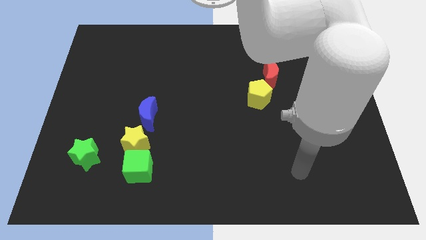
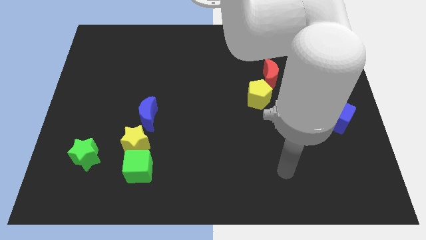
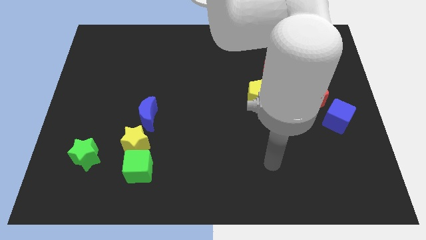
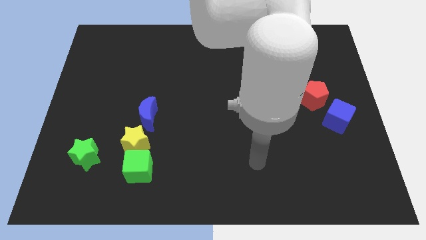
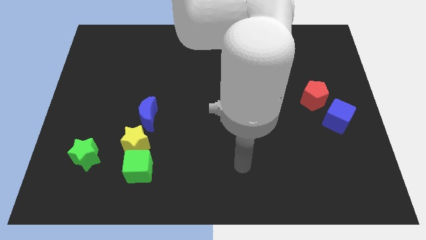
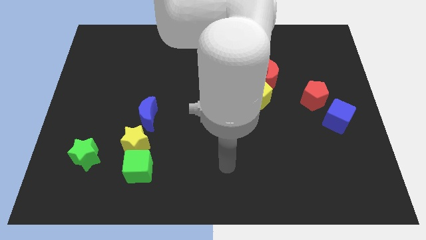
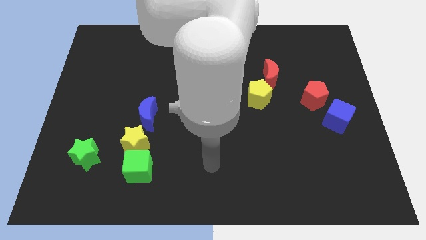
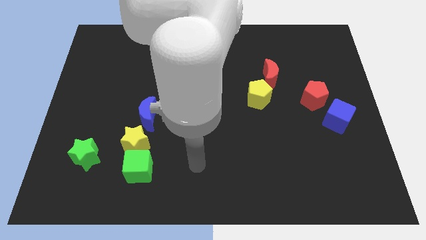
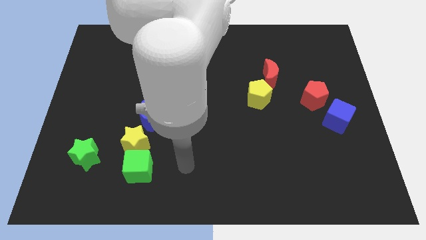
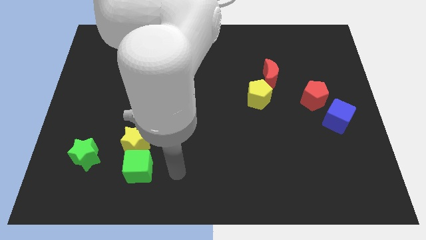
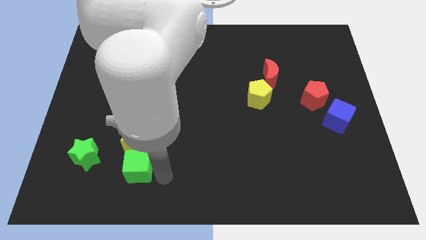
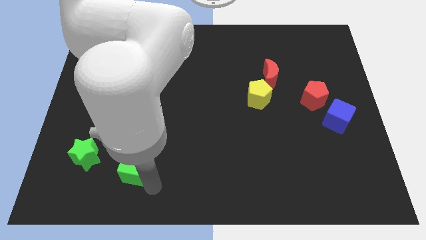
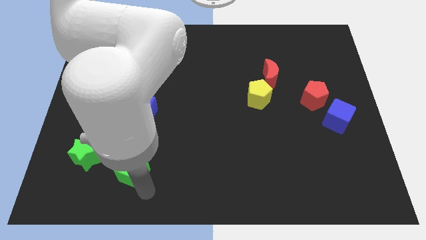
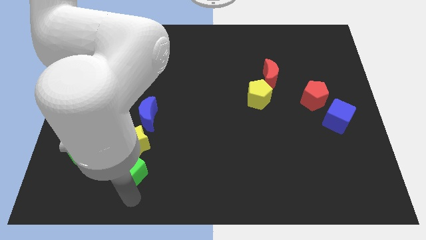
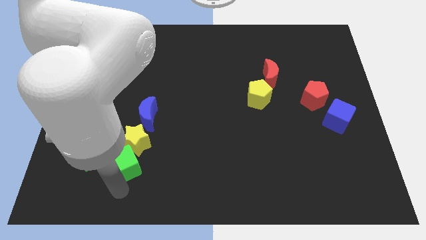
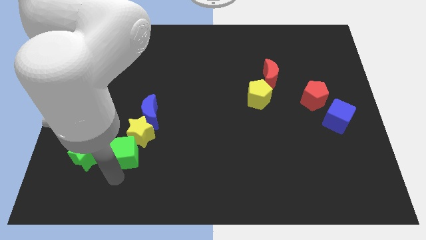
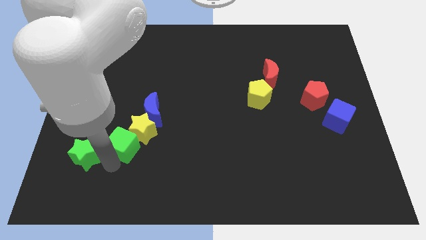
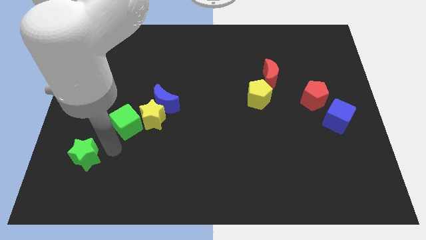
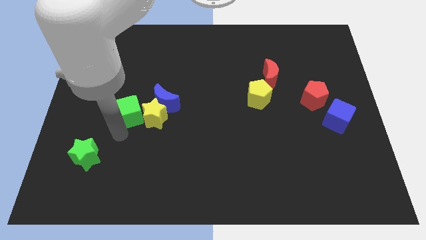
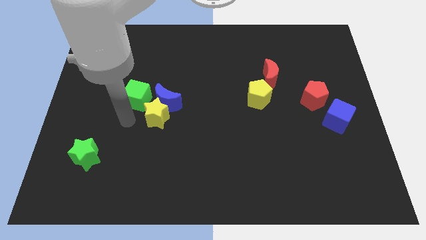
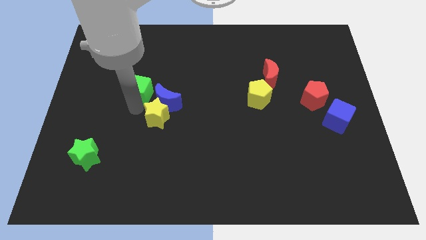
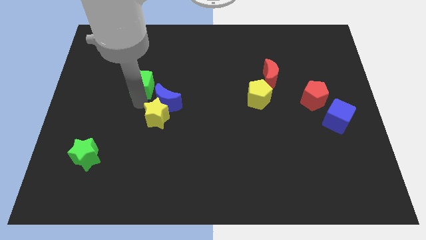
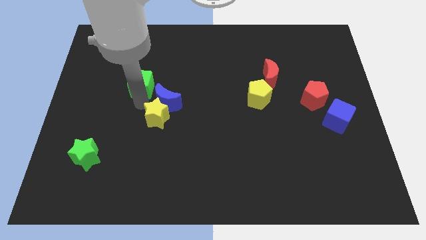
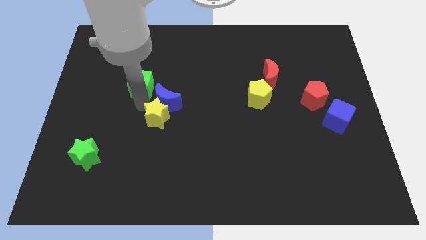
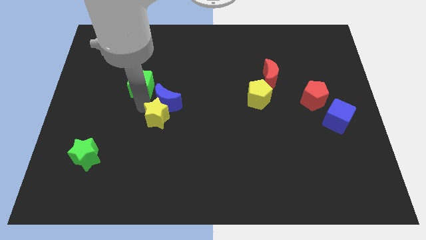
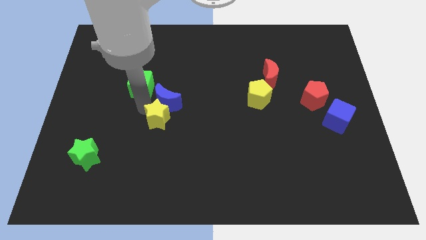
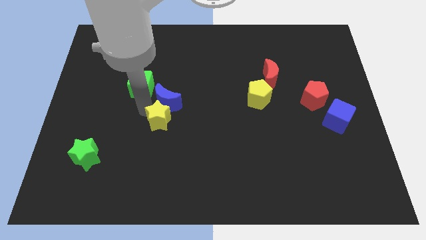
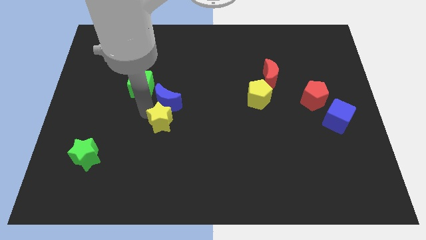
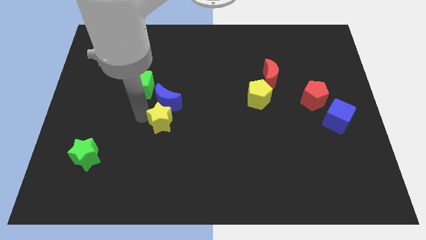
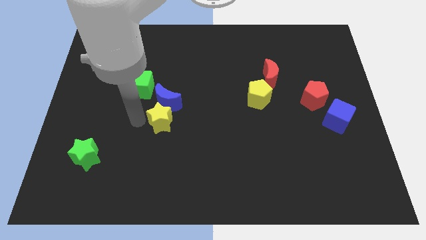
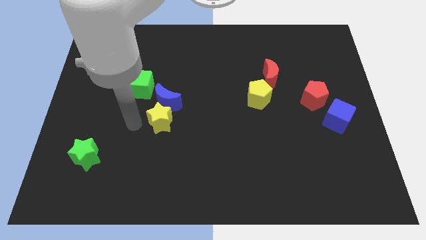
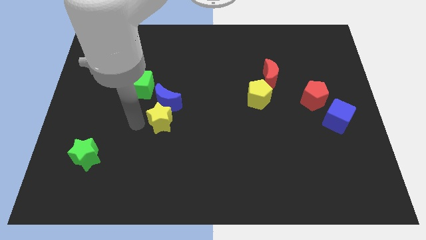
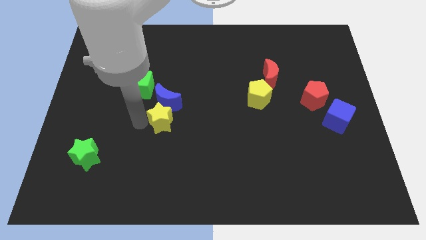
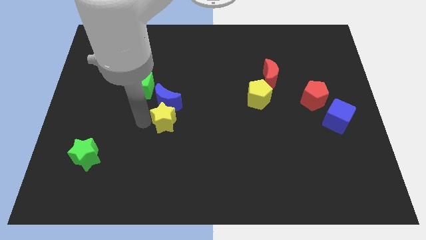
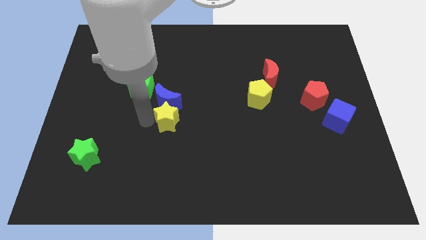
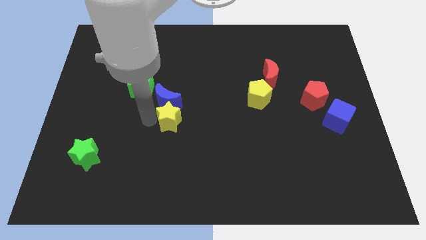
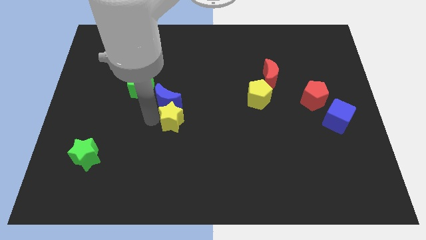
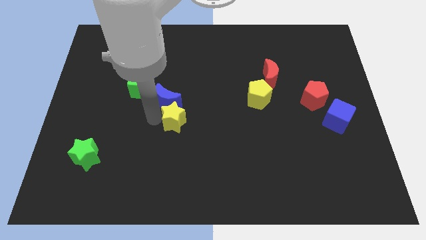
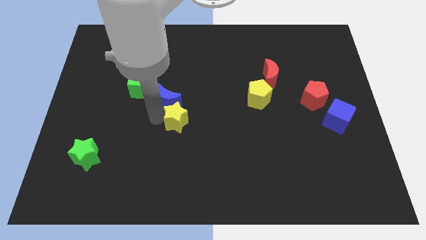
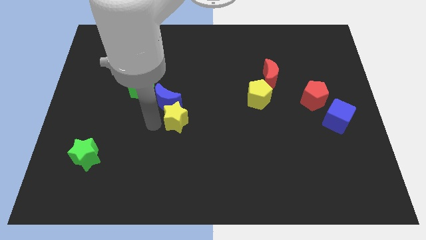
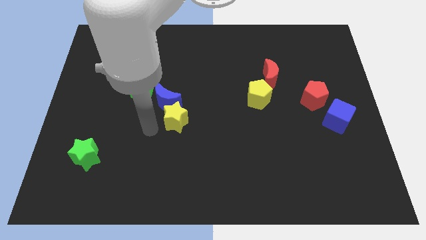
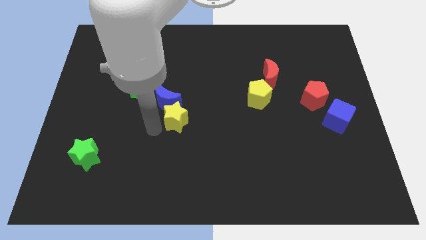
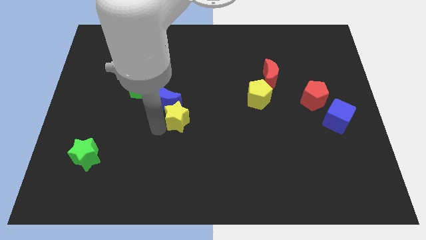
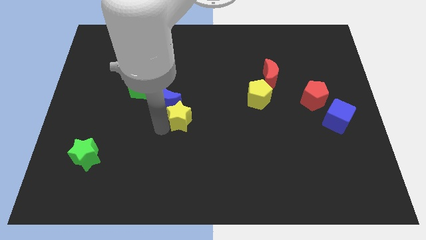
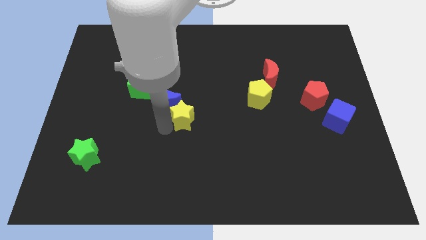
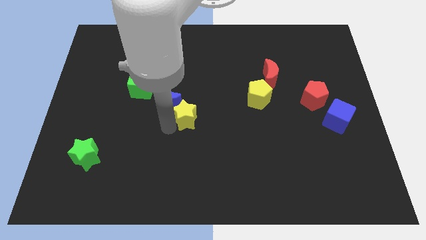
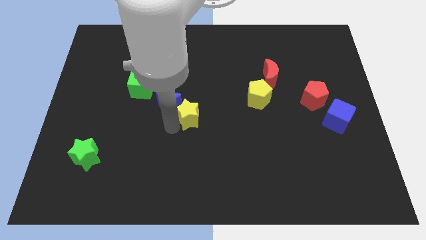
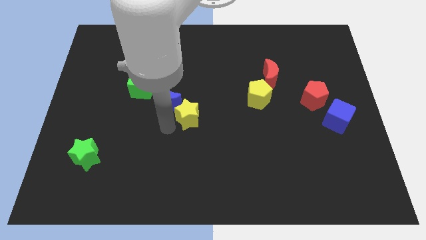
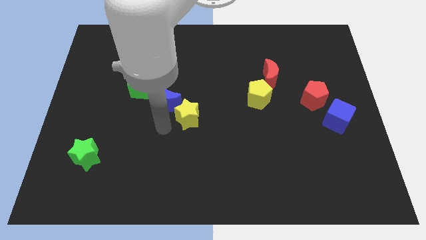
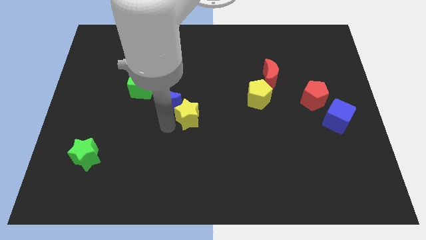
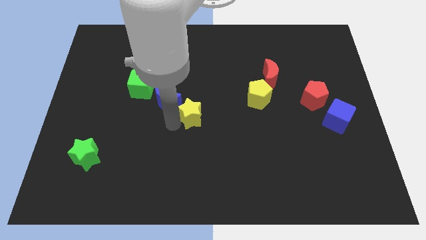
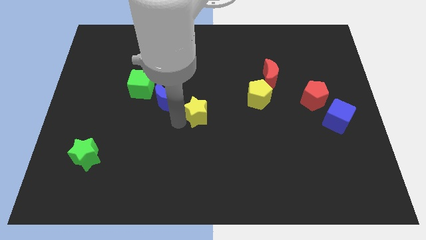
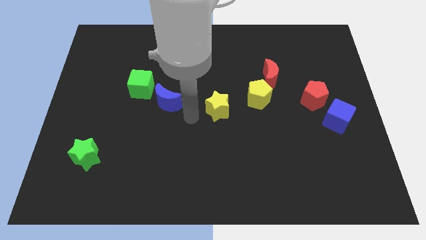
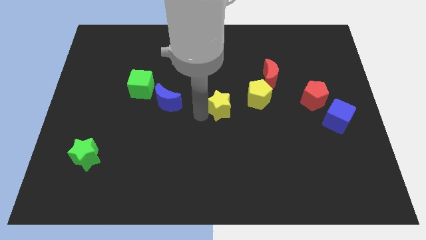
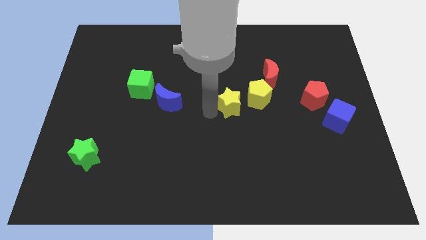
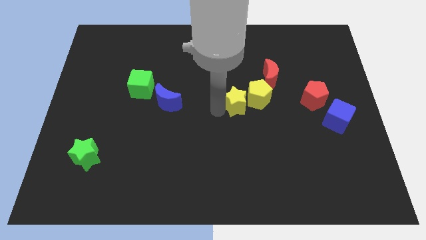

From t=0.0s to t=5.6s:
move the yellow star to the bottom left side of the red moon

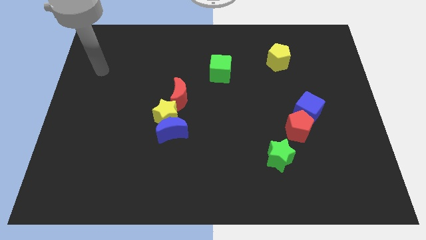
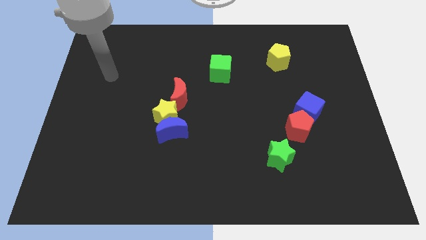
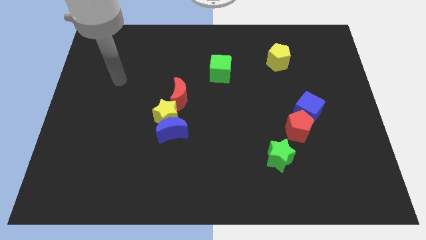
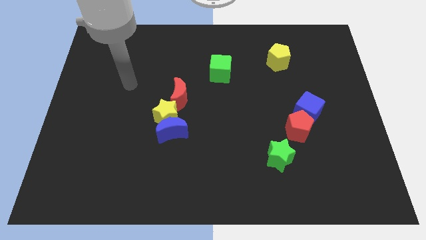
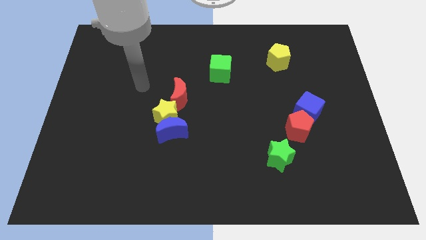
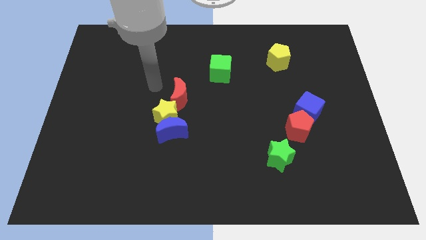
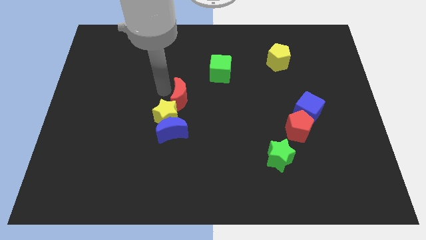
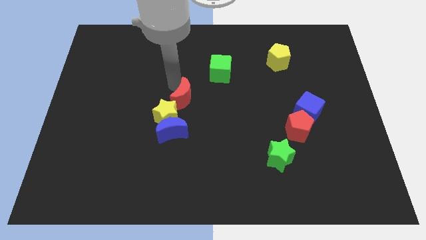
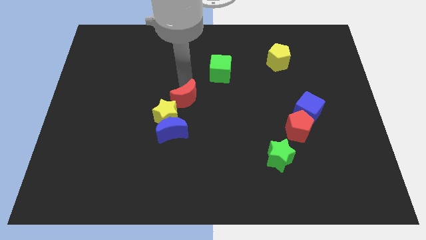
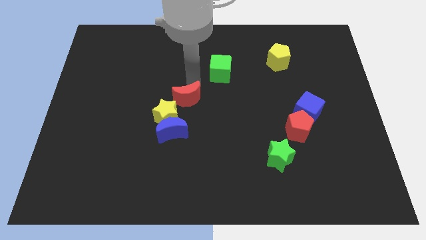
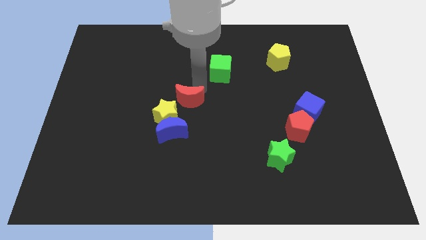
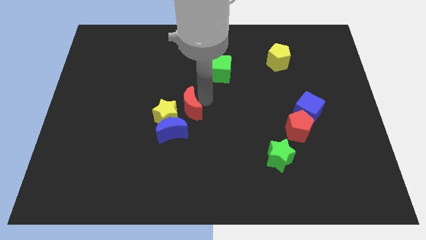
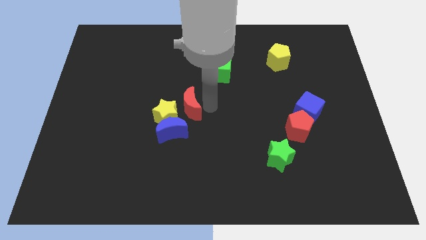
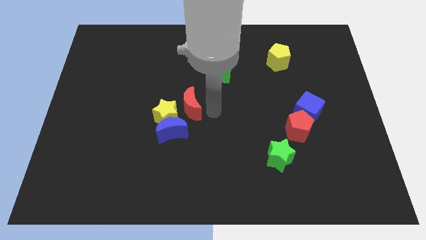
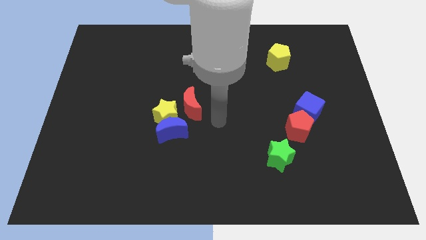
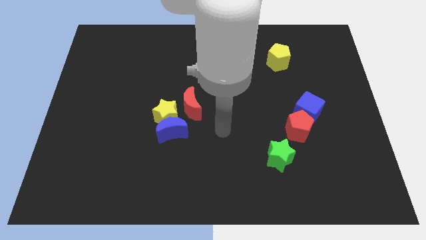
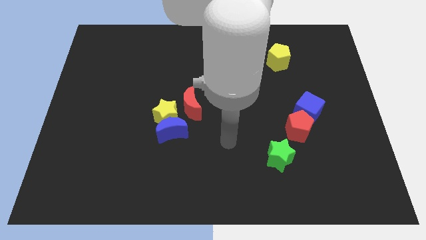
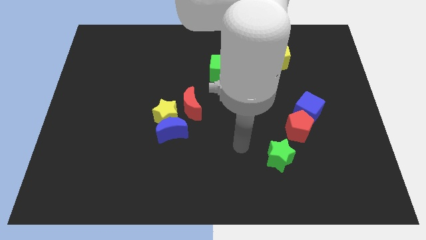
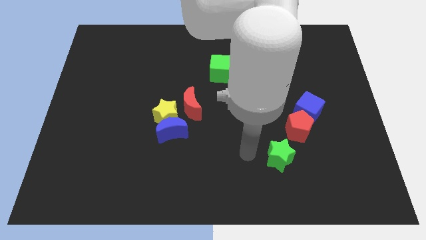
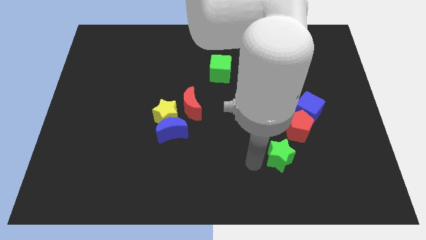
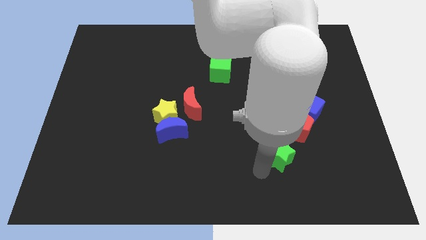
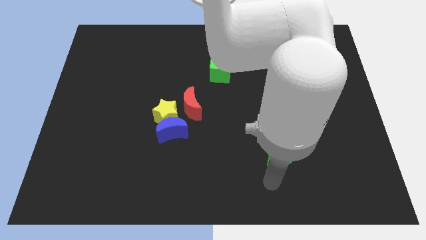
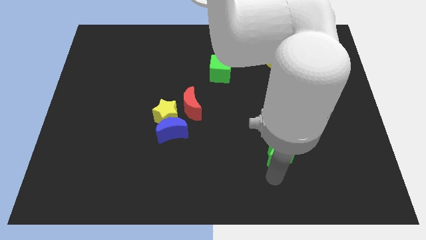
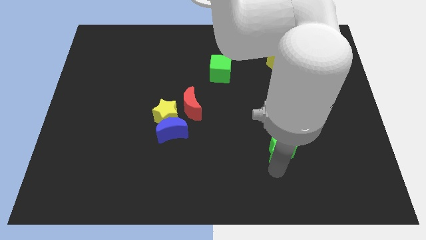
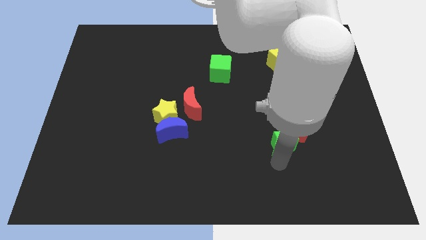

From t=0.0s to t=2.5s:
slide the green star to the bottom left of the blue cube
